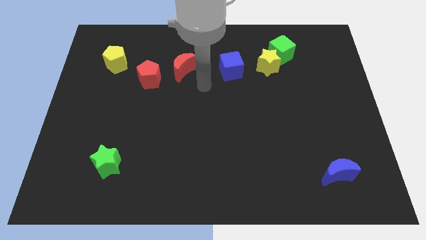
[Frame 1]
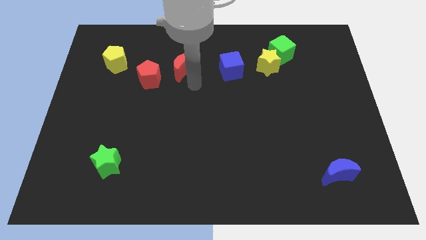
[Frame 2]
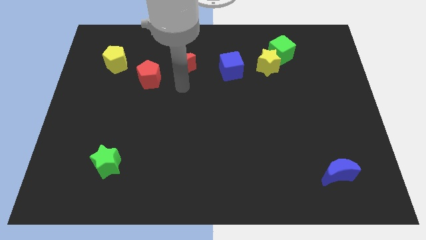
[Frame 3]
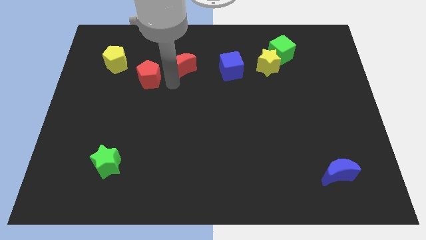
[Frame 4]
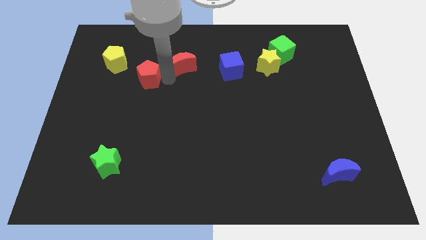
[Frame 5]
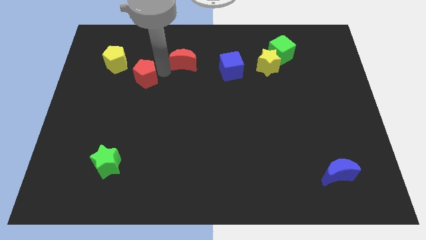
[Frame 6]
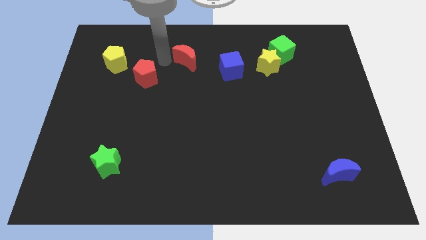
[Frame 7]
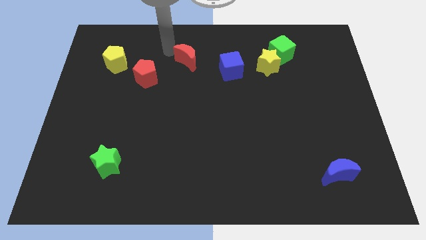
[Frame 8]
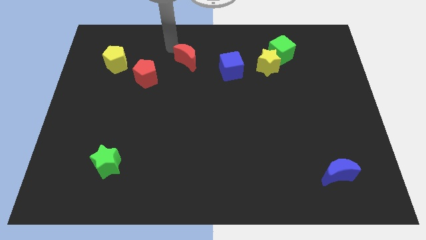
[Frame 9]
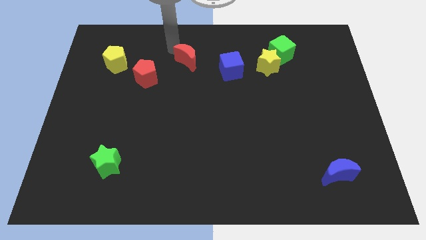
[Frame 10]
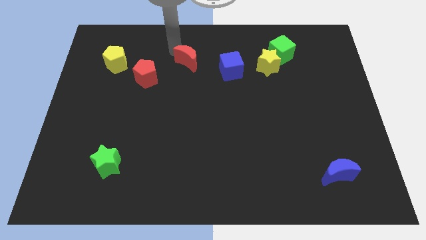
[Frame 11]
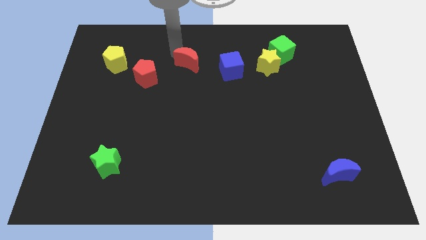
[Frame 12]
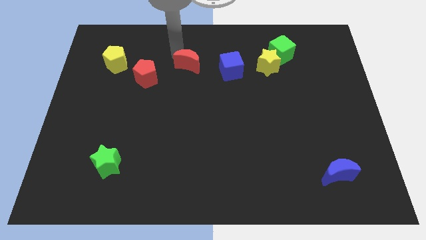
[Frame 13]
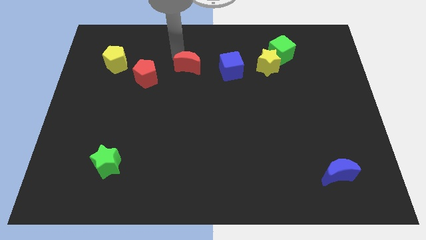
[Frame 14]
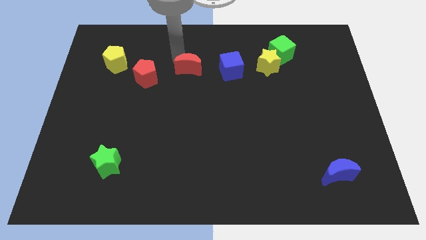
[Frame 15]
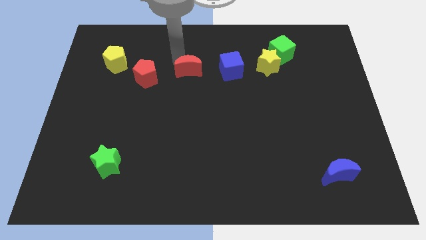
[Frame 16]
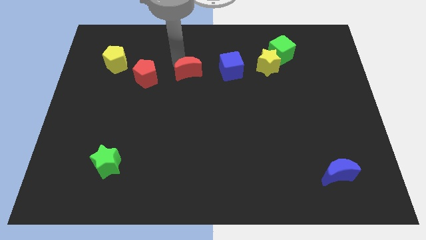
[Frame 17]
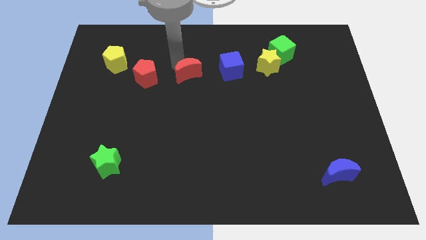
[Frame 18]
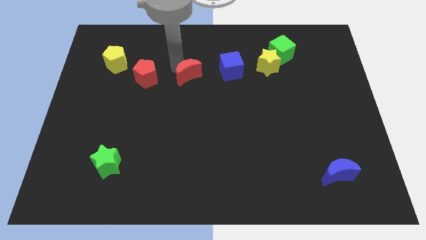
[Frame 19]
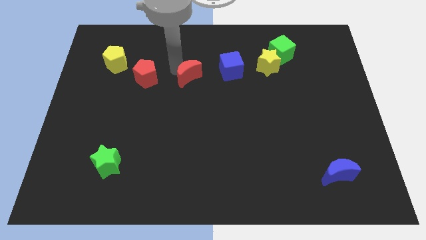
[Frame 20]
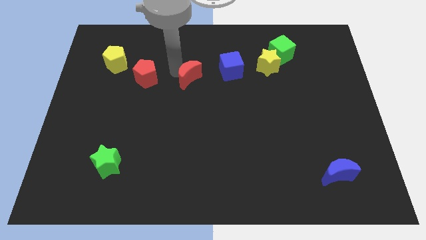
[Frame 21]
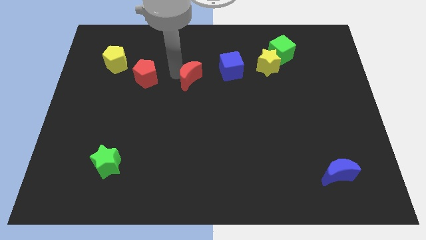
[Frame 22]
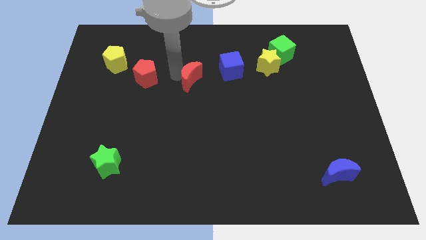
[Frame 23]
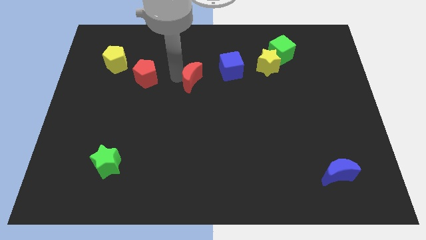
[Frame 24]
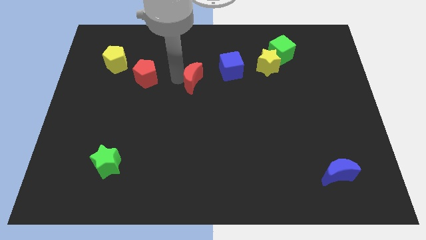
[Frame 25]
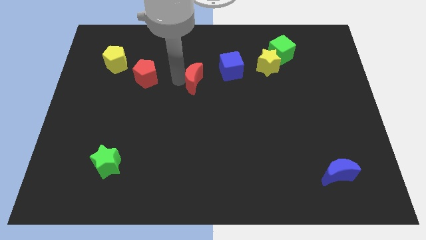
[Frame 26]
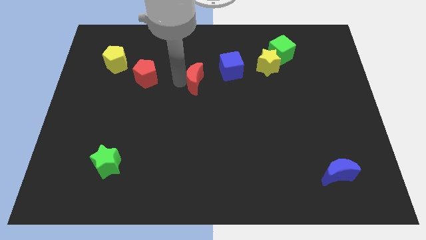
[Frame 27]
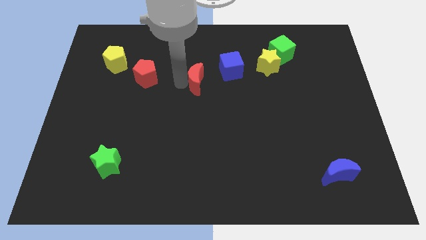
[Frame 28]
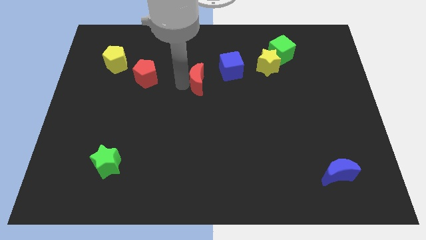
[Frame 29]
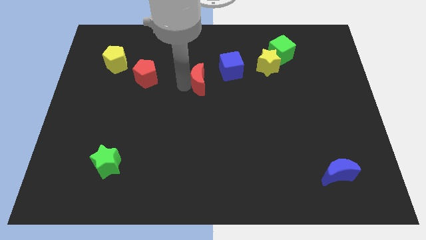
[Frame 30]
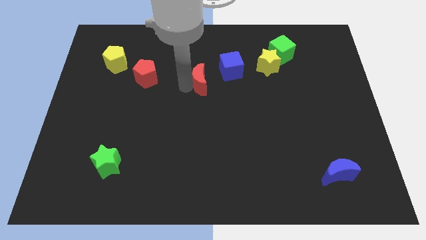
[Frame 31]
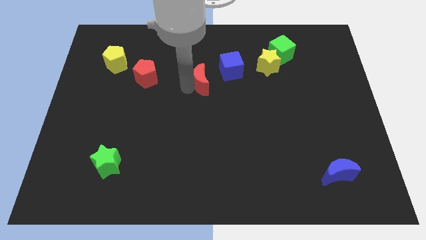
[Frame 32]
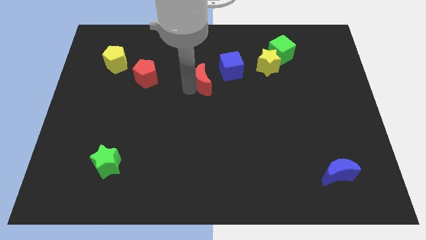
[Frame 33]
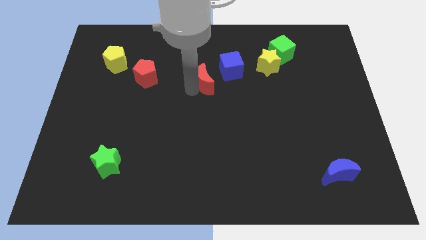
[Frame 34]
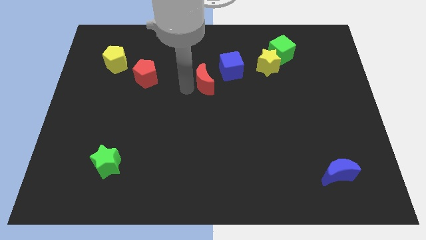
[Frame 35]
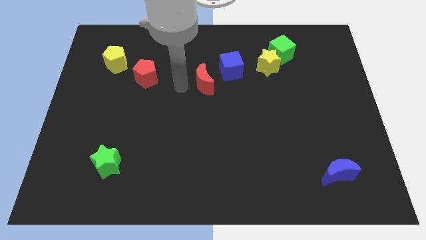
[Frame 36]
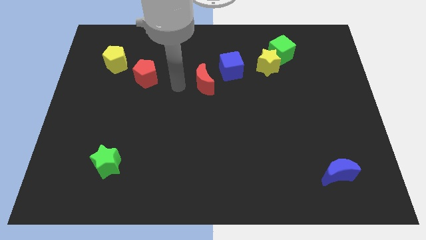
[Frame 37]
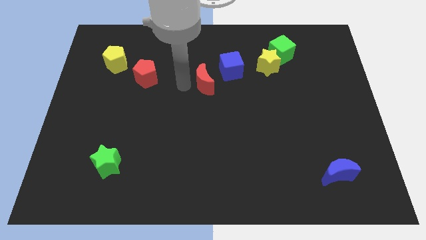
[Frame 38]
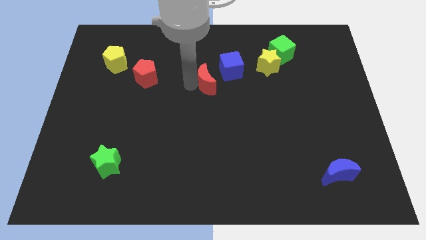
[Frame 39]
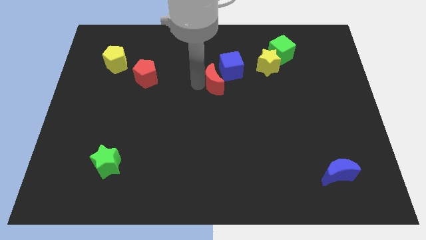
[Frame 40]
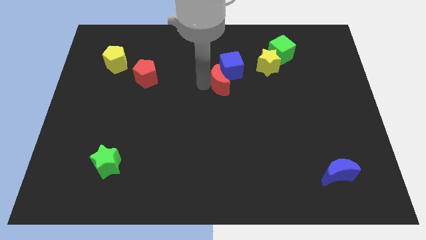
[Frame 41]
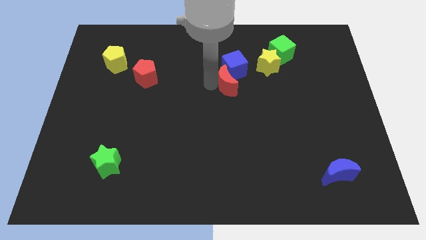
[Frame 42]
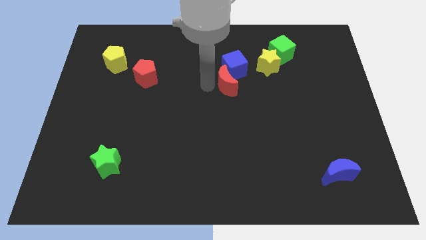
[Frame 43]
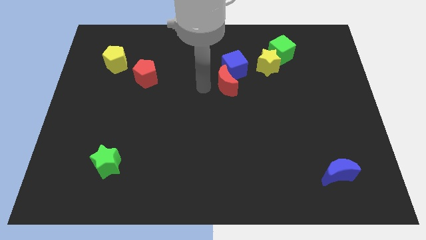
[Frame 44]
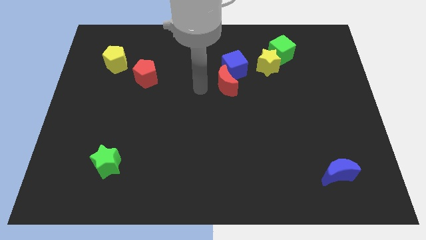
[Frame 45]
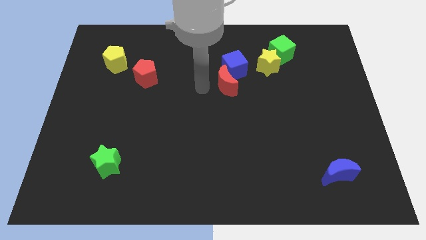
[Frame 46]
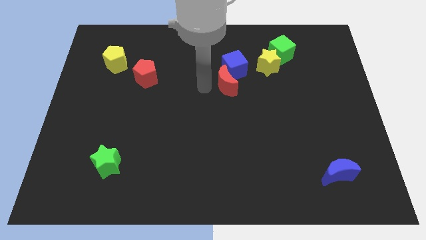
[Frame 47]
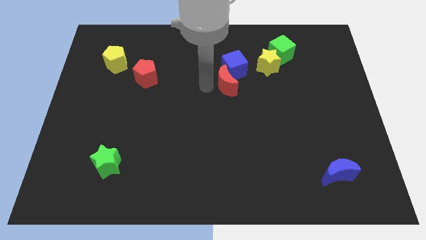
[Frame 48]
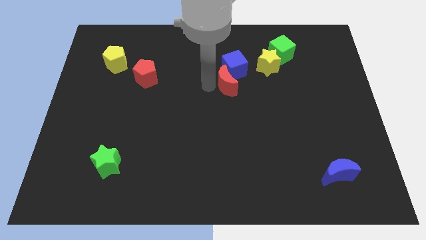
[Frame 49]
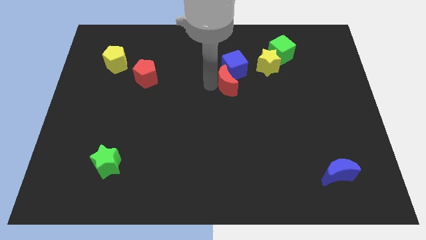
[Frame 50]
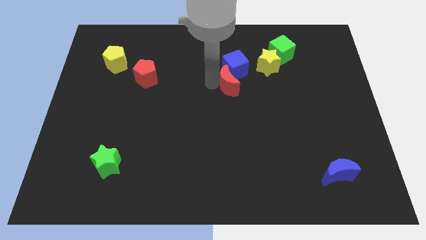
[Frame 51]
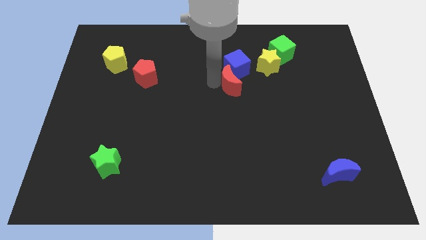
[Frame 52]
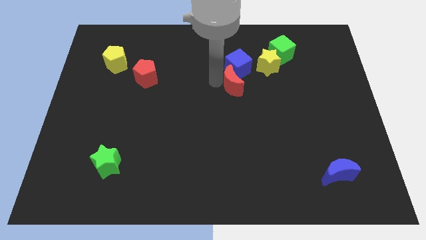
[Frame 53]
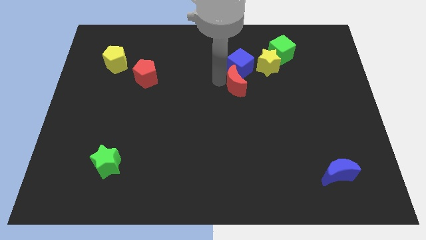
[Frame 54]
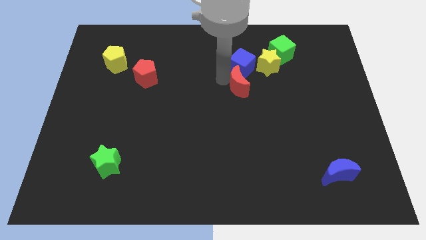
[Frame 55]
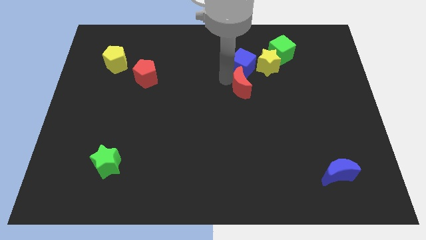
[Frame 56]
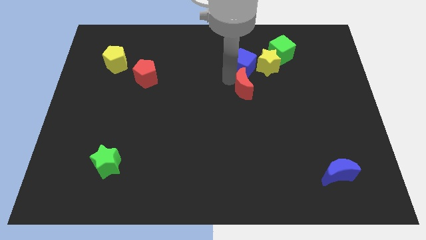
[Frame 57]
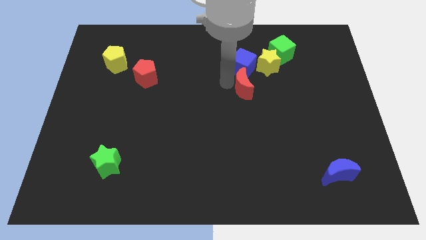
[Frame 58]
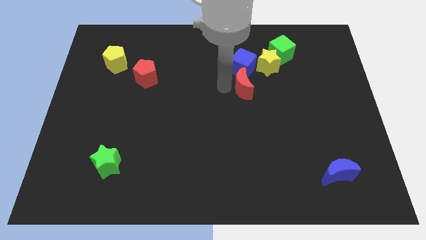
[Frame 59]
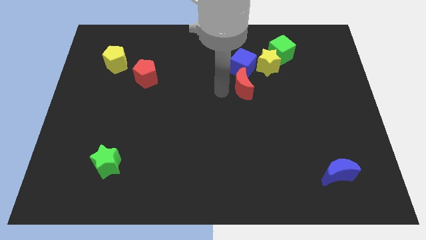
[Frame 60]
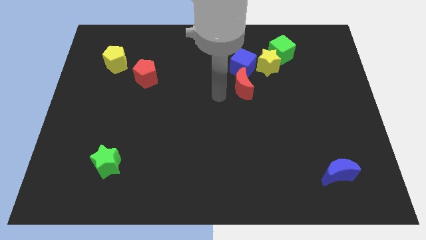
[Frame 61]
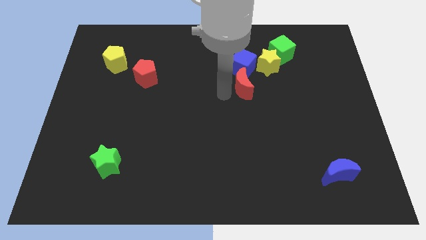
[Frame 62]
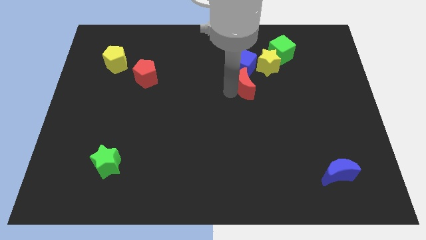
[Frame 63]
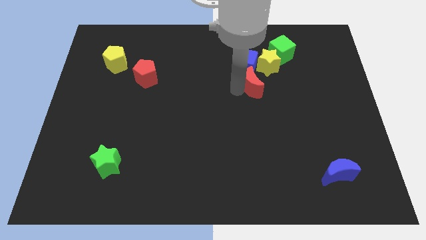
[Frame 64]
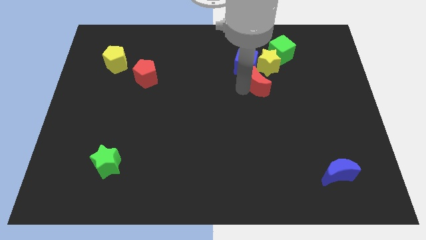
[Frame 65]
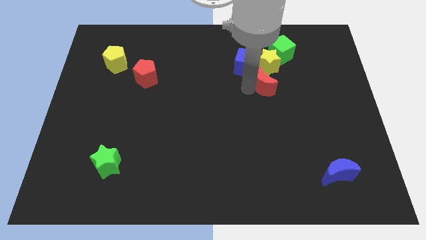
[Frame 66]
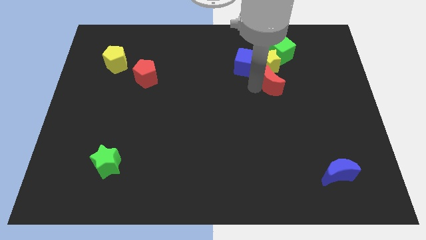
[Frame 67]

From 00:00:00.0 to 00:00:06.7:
put the red moon below the green cube
